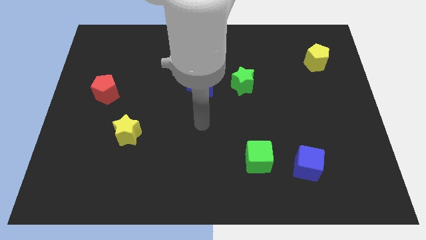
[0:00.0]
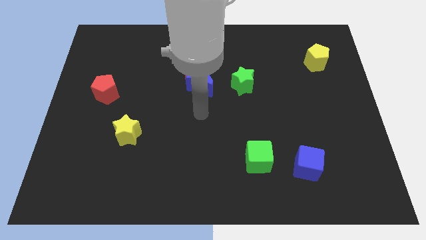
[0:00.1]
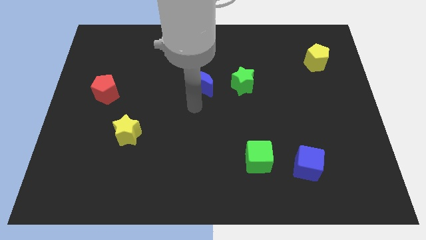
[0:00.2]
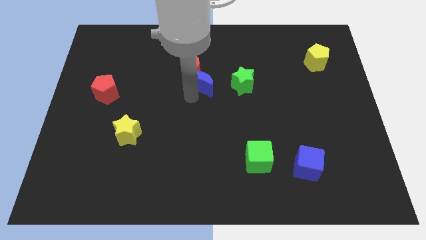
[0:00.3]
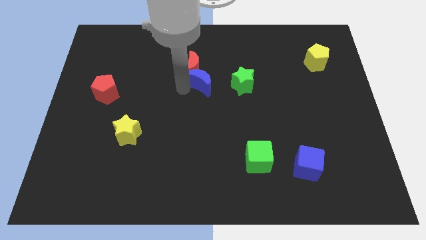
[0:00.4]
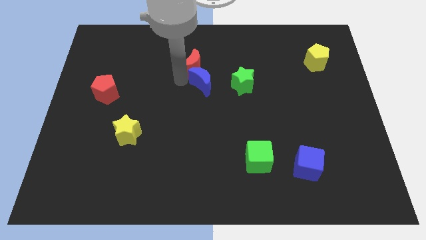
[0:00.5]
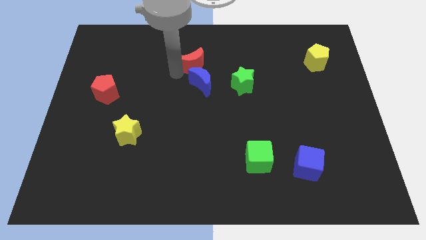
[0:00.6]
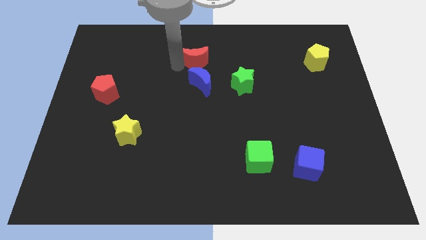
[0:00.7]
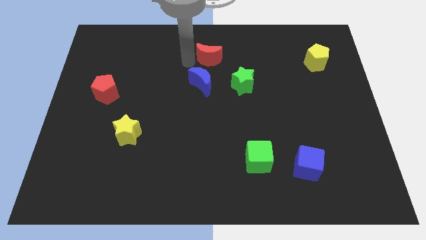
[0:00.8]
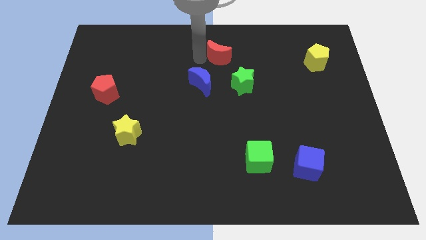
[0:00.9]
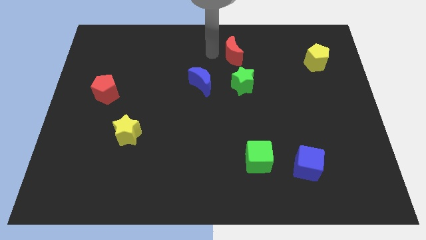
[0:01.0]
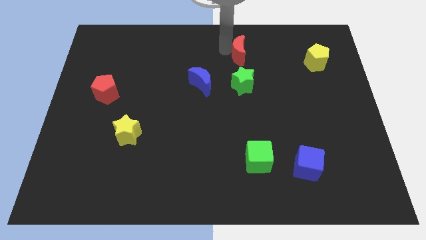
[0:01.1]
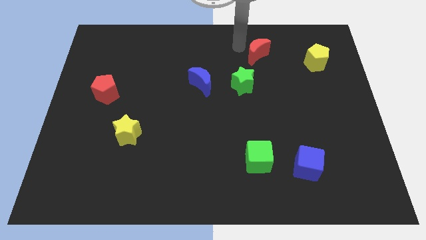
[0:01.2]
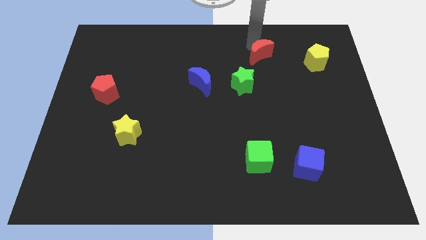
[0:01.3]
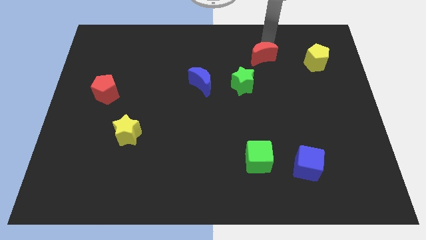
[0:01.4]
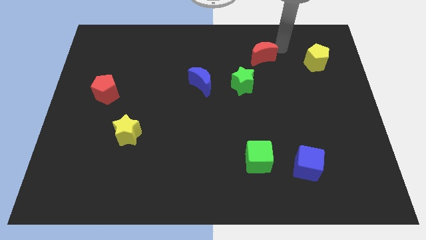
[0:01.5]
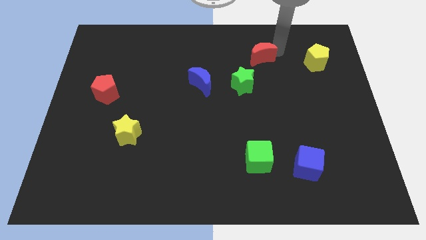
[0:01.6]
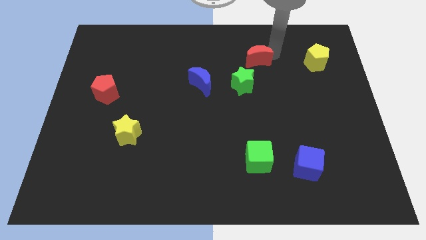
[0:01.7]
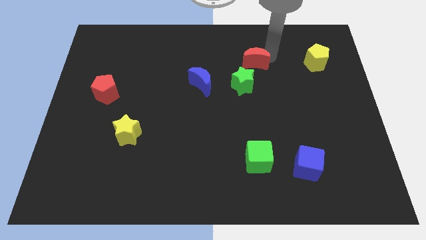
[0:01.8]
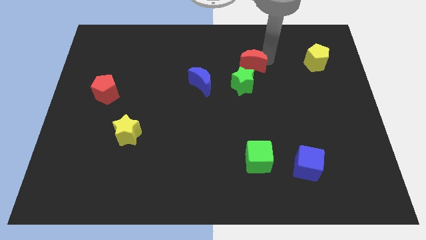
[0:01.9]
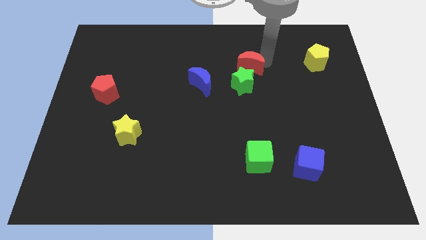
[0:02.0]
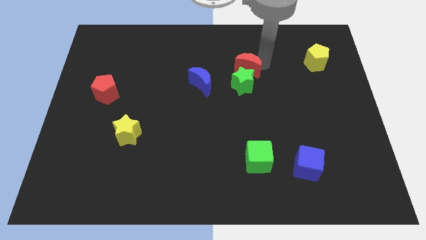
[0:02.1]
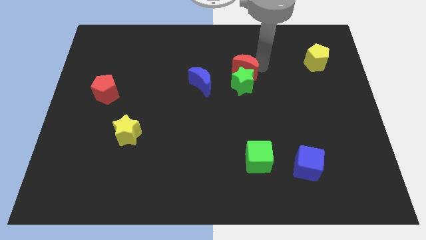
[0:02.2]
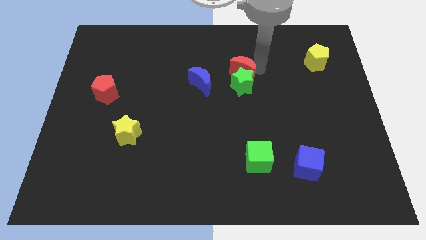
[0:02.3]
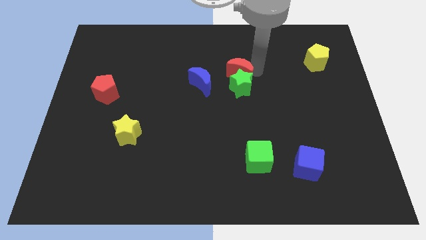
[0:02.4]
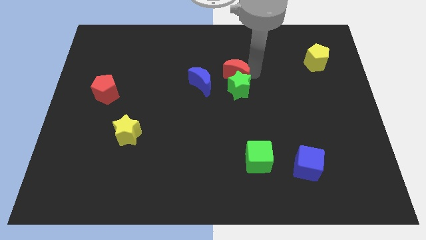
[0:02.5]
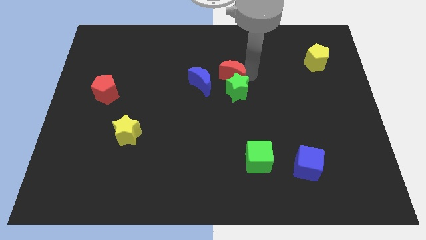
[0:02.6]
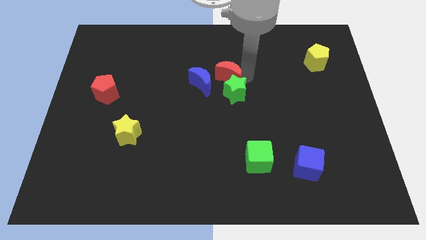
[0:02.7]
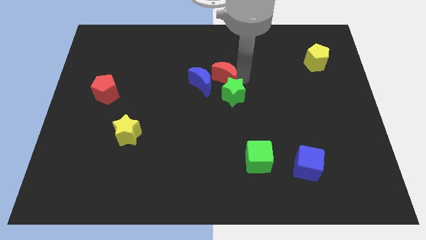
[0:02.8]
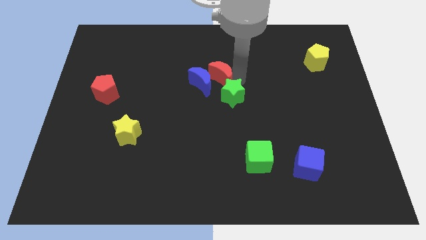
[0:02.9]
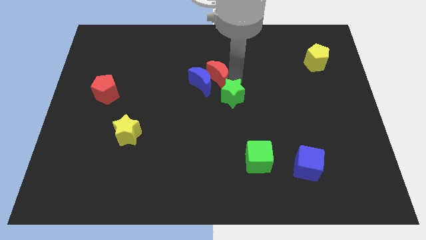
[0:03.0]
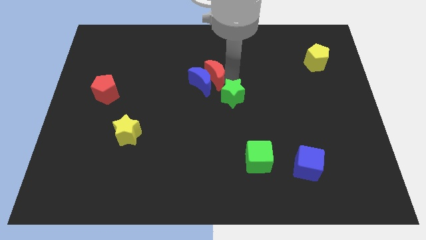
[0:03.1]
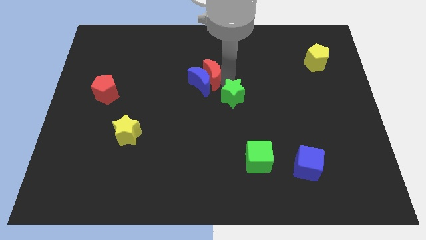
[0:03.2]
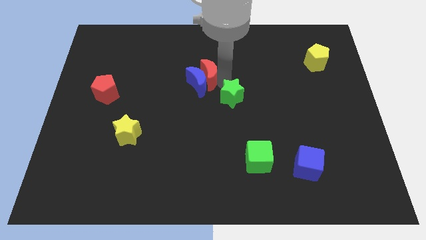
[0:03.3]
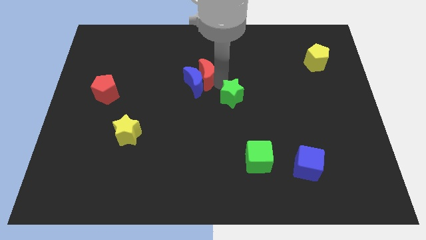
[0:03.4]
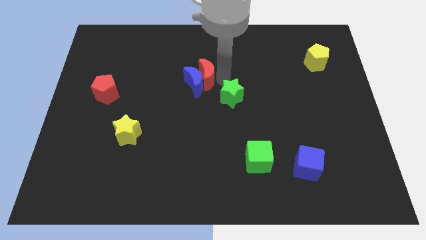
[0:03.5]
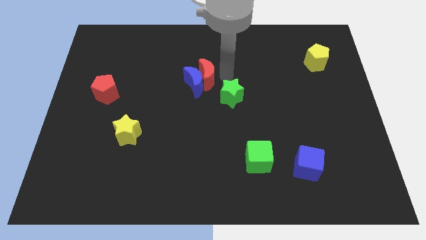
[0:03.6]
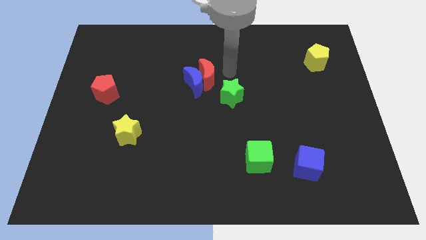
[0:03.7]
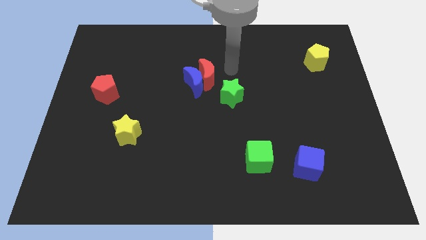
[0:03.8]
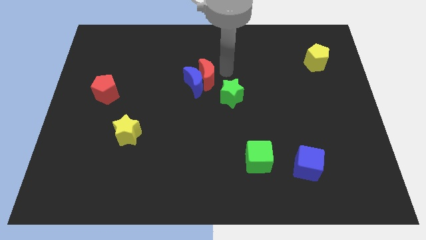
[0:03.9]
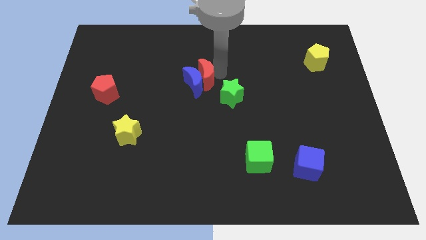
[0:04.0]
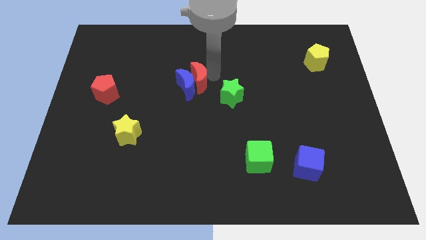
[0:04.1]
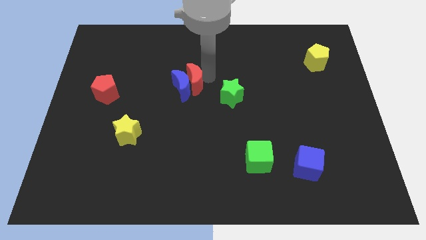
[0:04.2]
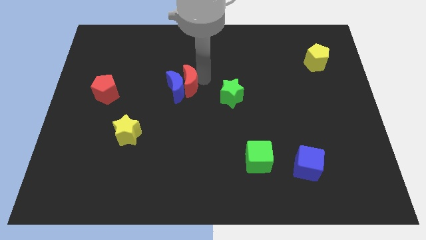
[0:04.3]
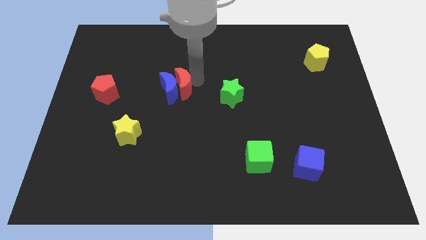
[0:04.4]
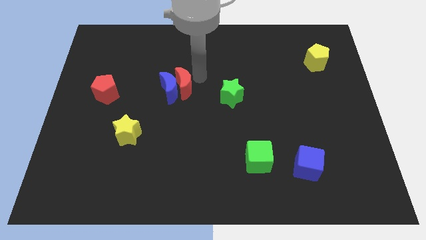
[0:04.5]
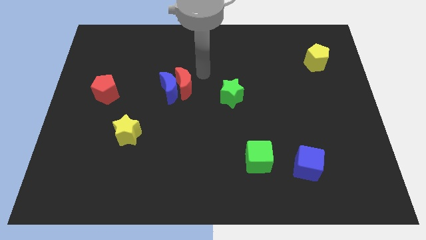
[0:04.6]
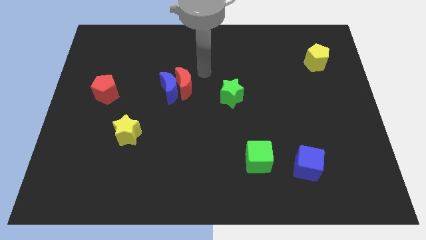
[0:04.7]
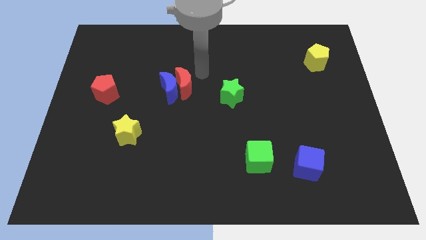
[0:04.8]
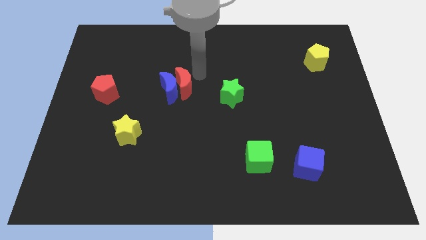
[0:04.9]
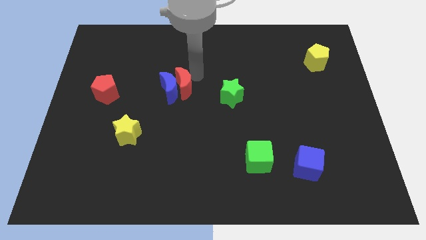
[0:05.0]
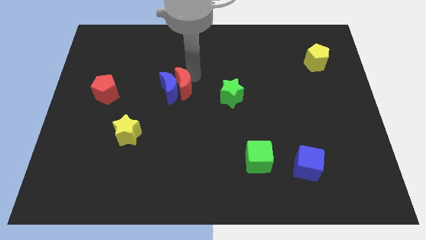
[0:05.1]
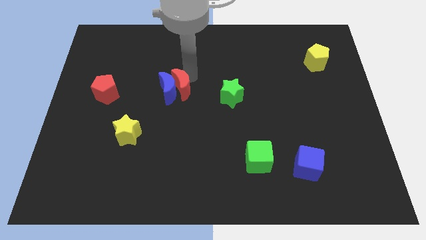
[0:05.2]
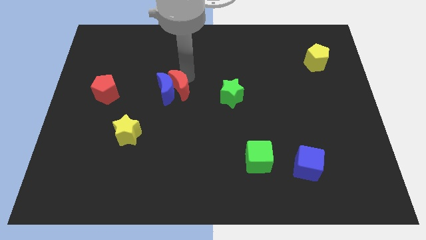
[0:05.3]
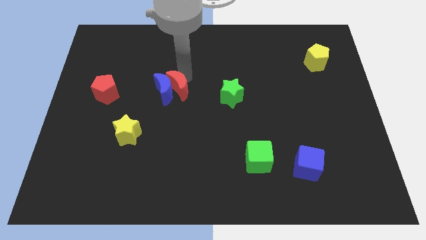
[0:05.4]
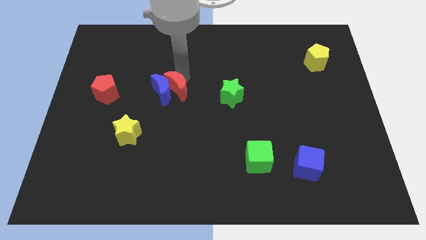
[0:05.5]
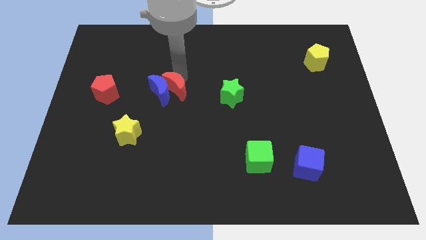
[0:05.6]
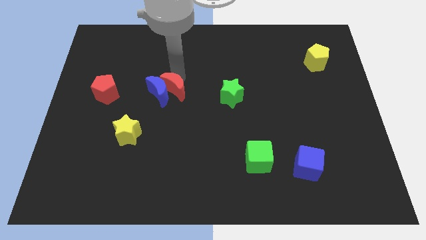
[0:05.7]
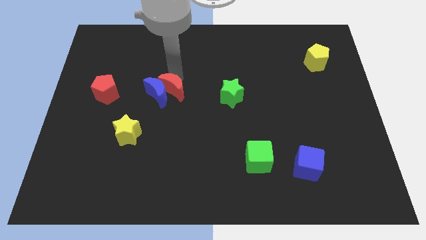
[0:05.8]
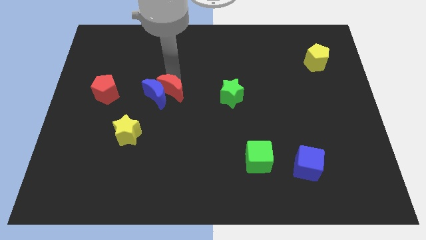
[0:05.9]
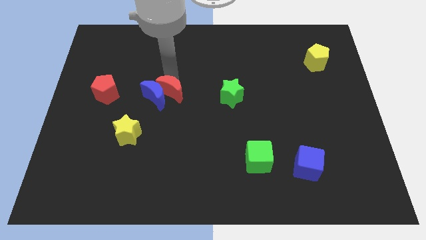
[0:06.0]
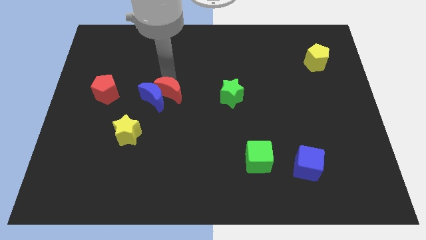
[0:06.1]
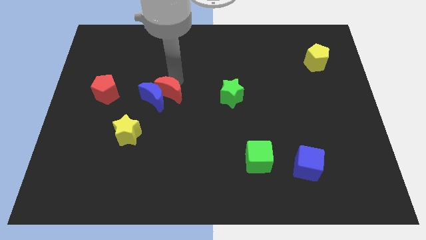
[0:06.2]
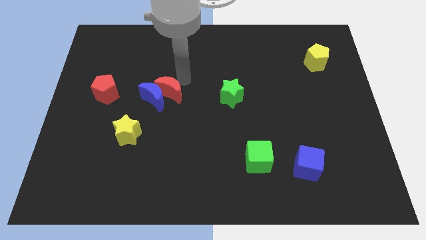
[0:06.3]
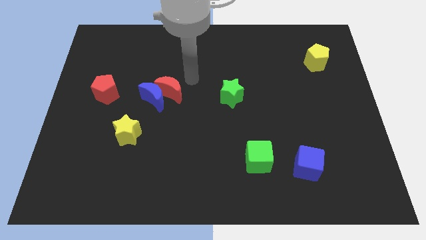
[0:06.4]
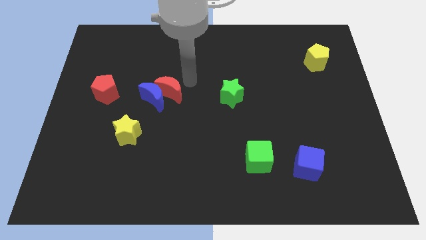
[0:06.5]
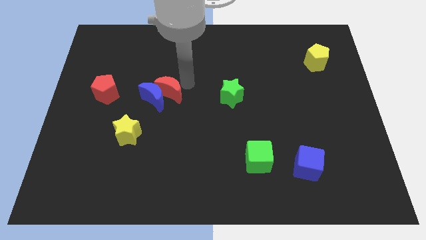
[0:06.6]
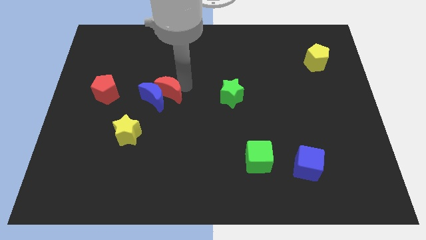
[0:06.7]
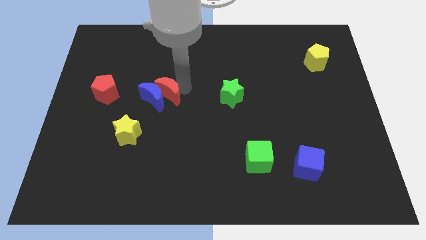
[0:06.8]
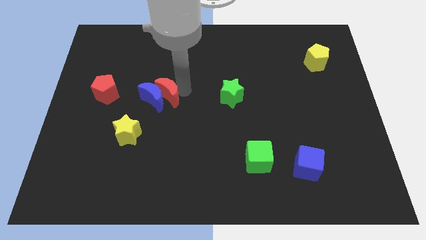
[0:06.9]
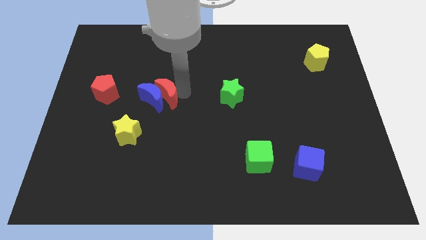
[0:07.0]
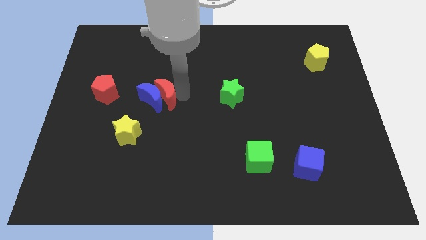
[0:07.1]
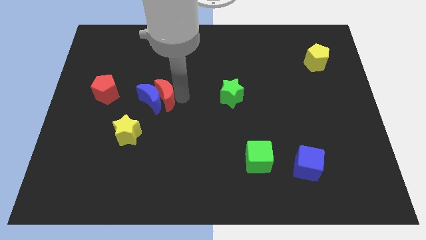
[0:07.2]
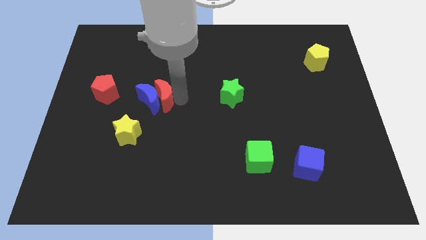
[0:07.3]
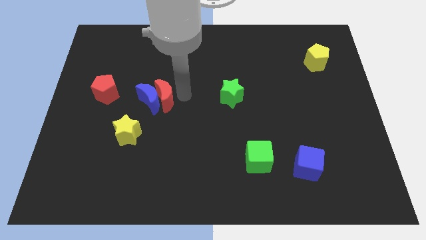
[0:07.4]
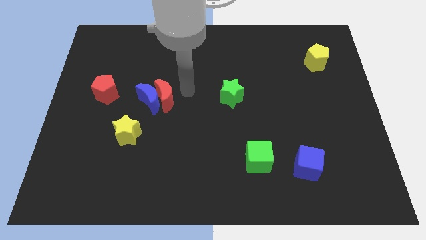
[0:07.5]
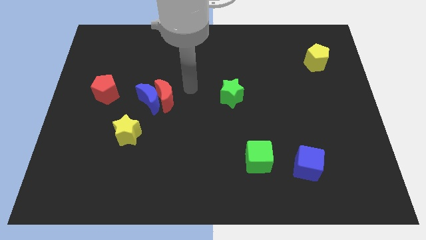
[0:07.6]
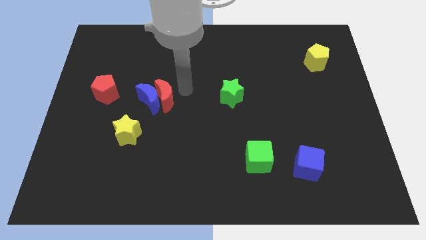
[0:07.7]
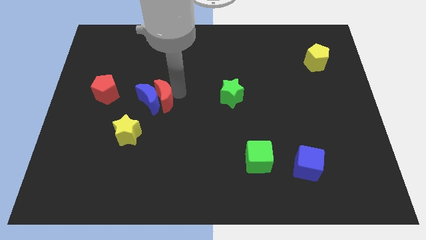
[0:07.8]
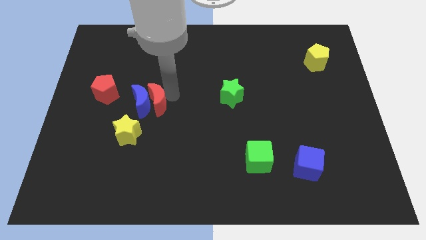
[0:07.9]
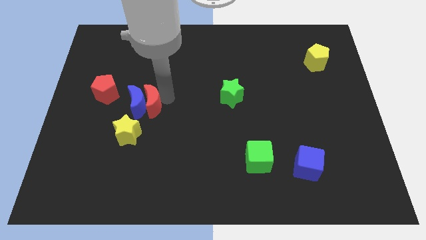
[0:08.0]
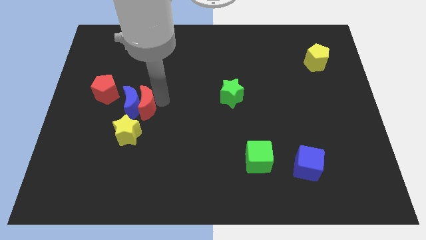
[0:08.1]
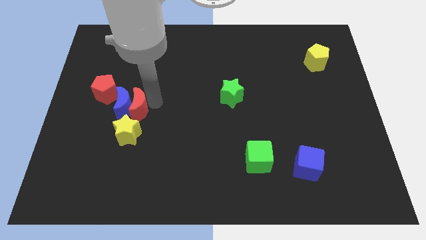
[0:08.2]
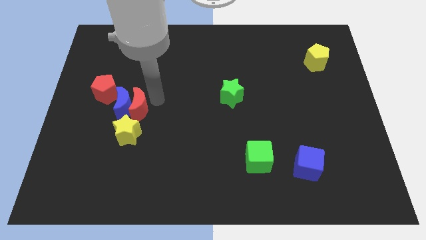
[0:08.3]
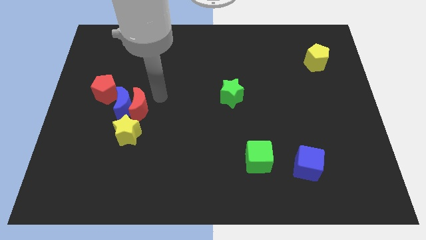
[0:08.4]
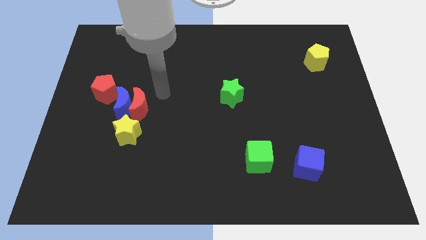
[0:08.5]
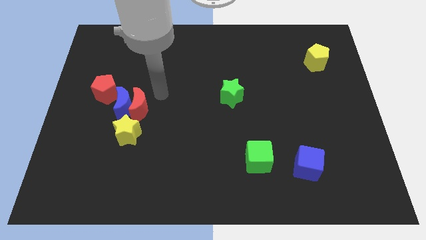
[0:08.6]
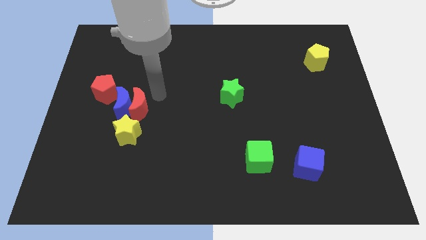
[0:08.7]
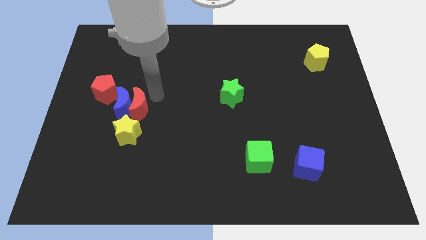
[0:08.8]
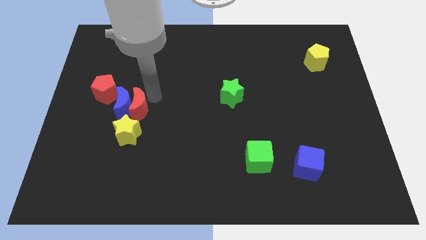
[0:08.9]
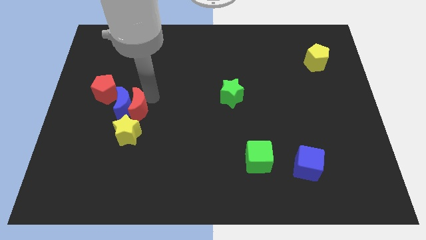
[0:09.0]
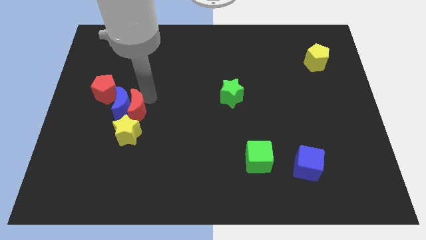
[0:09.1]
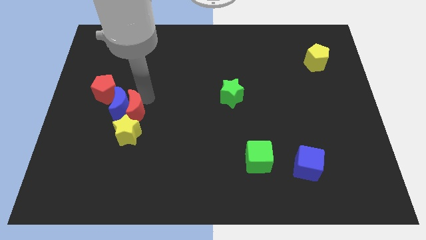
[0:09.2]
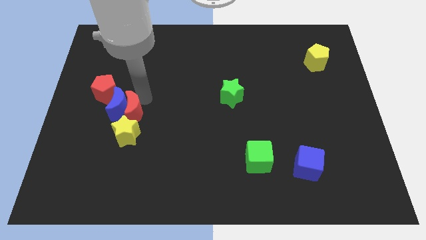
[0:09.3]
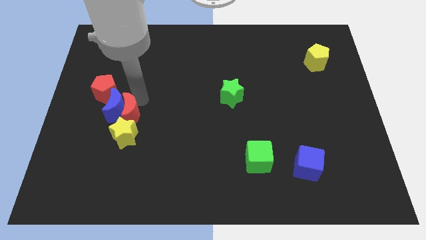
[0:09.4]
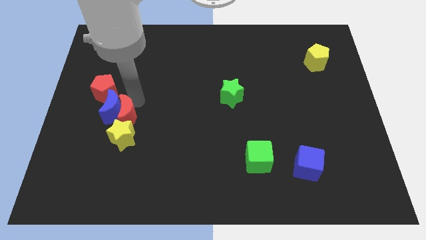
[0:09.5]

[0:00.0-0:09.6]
move the red moon downwards and to the left
